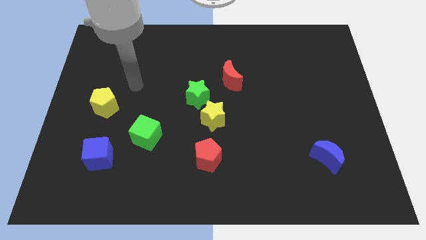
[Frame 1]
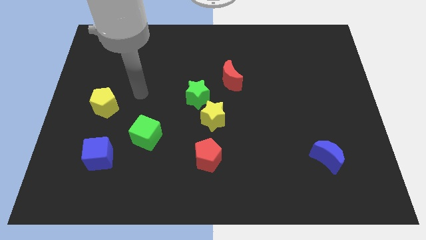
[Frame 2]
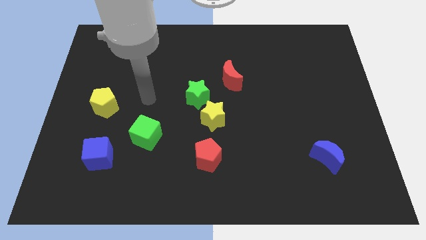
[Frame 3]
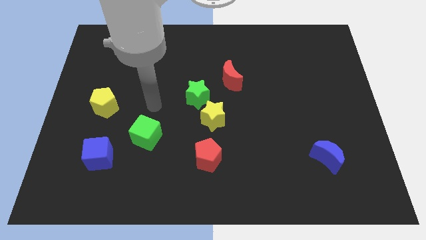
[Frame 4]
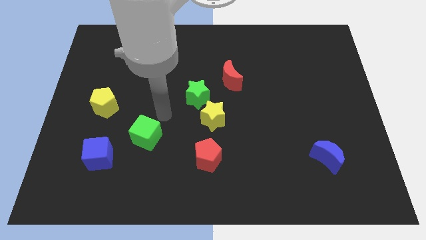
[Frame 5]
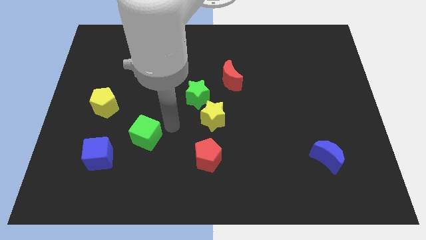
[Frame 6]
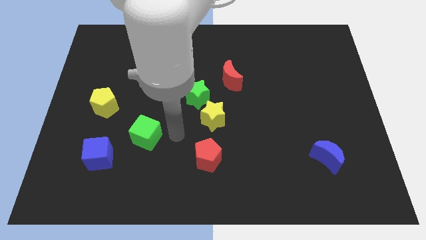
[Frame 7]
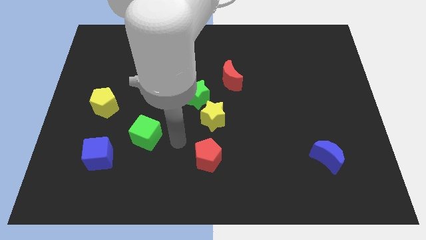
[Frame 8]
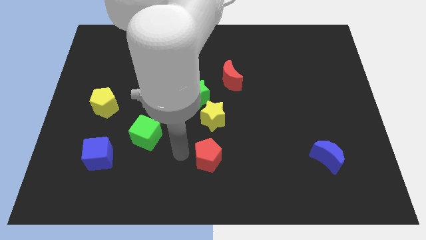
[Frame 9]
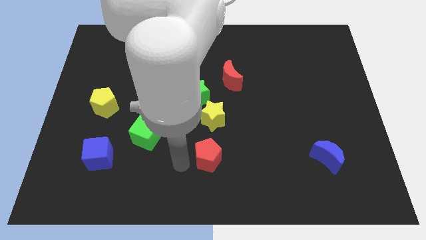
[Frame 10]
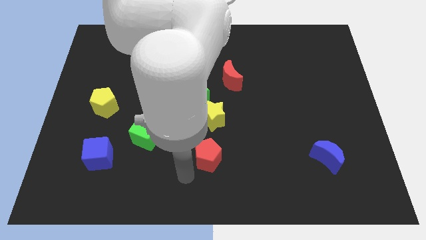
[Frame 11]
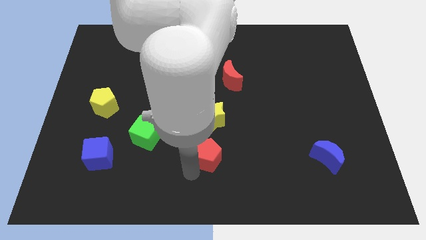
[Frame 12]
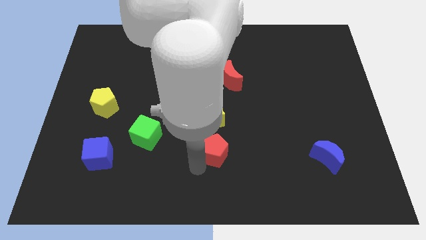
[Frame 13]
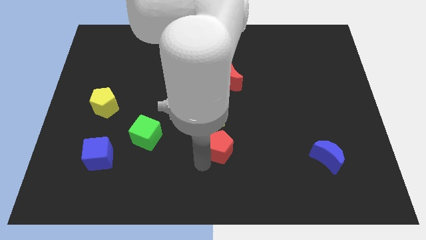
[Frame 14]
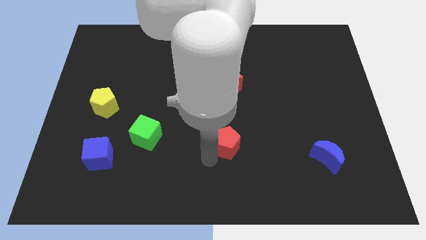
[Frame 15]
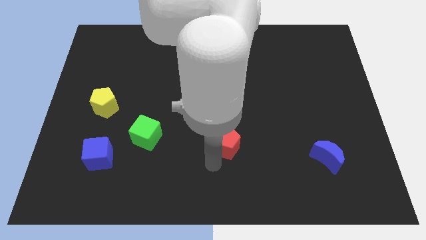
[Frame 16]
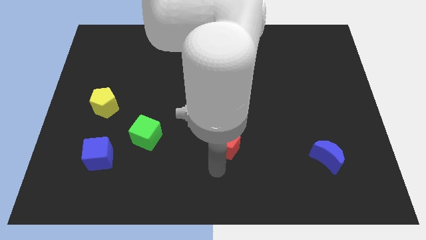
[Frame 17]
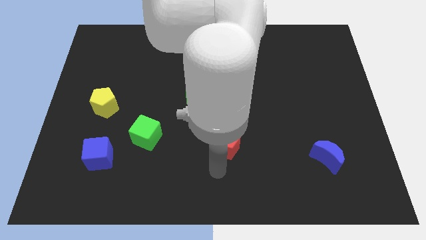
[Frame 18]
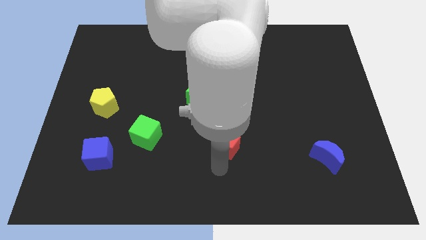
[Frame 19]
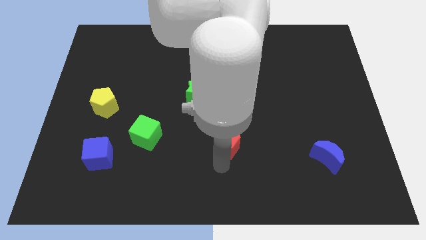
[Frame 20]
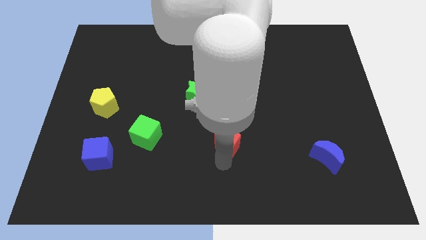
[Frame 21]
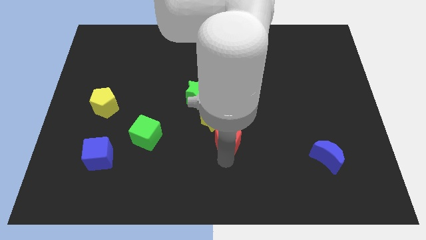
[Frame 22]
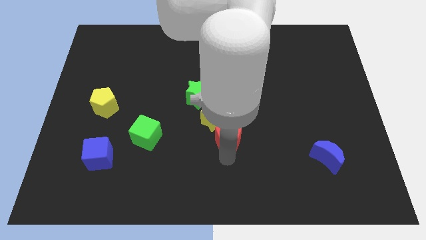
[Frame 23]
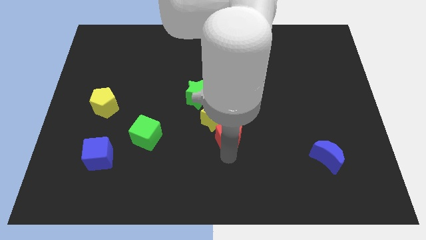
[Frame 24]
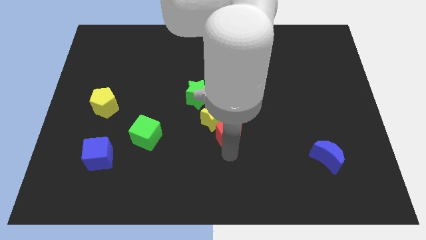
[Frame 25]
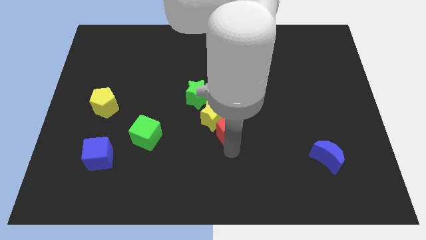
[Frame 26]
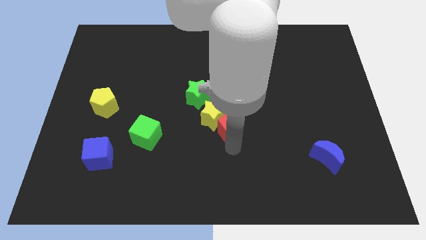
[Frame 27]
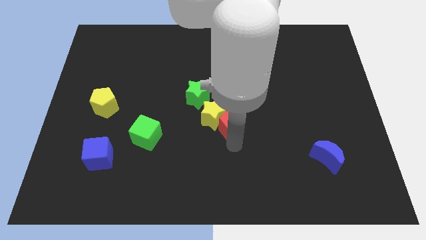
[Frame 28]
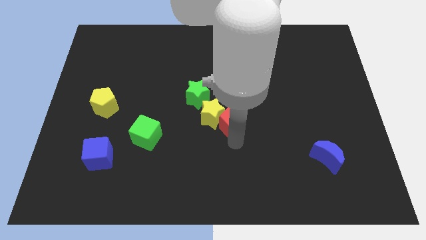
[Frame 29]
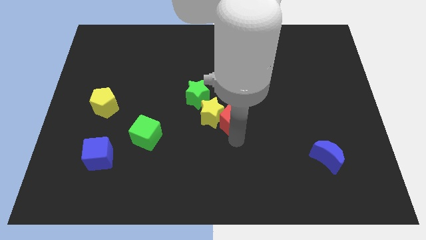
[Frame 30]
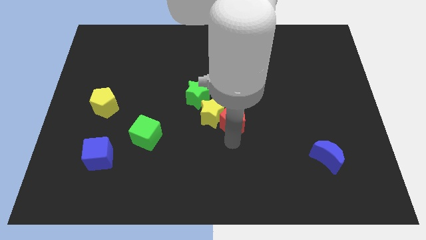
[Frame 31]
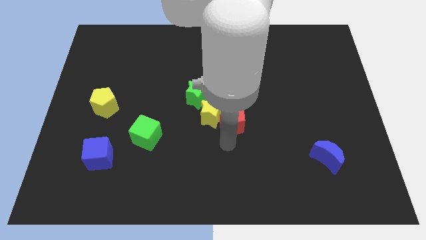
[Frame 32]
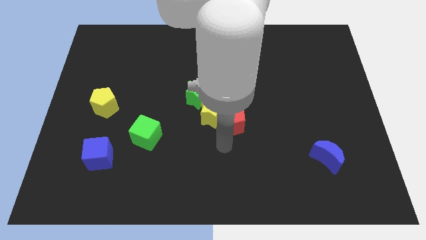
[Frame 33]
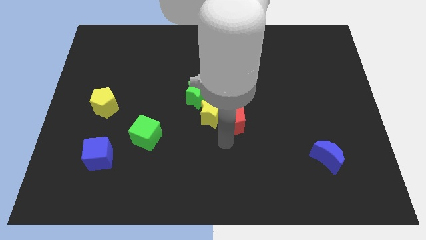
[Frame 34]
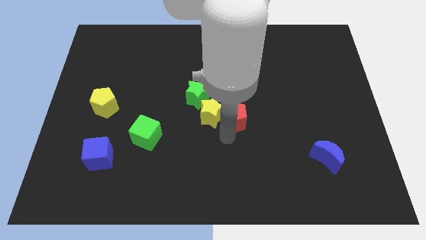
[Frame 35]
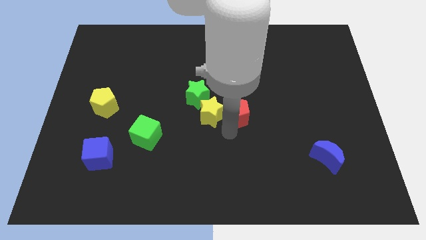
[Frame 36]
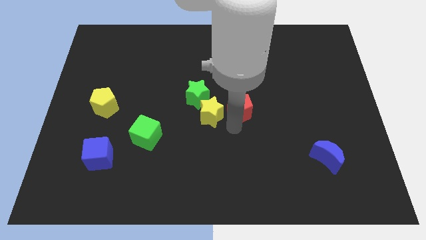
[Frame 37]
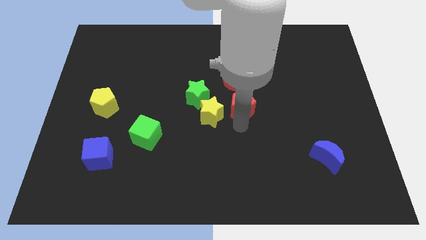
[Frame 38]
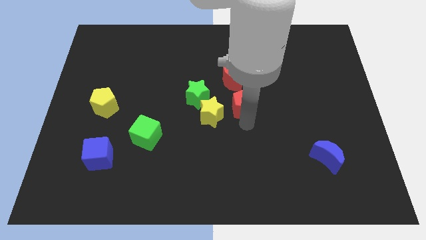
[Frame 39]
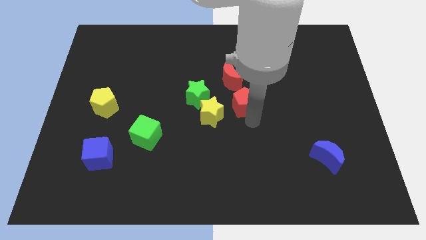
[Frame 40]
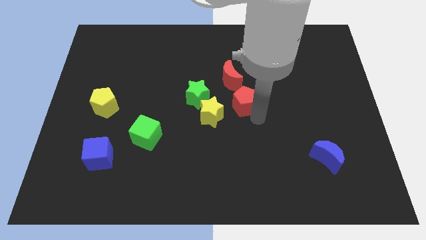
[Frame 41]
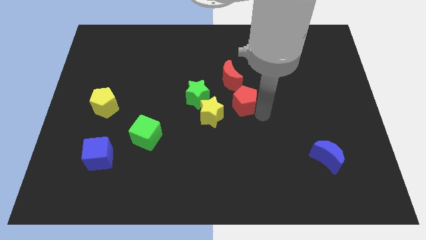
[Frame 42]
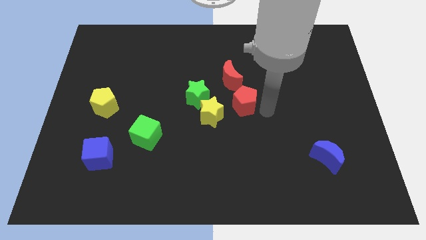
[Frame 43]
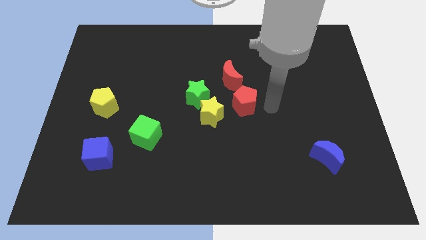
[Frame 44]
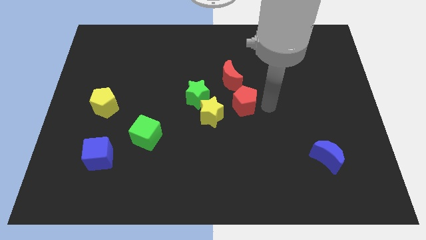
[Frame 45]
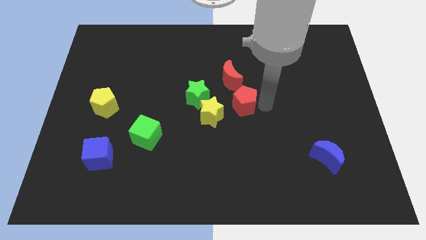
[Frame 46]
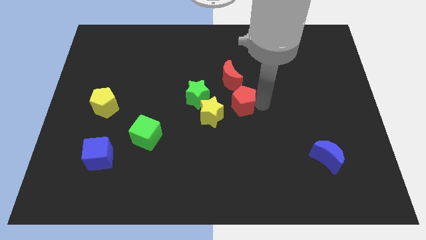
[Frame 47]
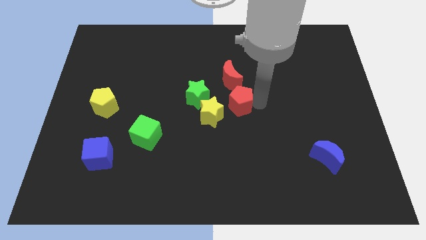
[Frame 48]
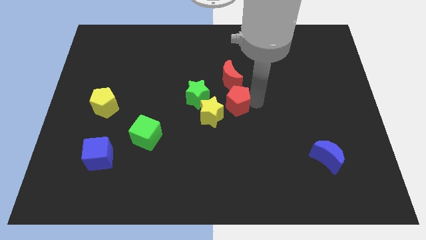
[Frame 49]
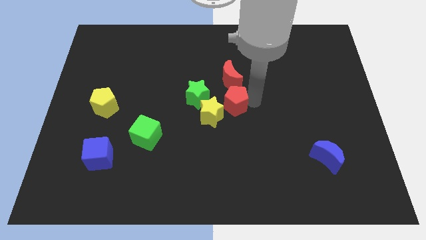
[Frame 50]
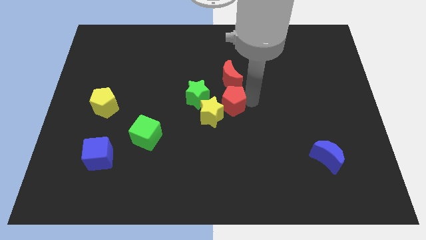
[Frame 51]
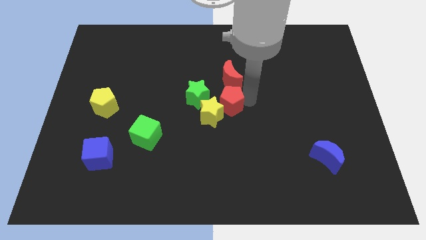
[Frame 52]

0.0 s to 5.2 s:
put the red pentagon to the top side of the yellow star

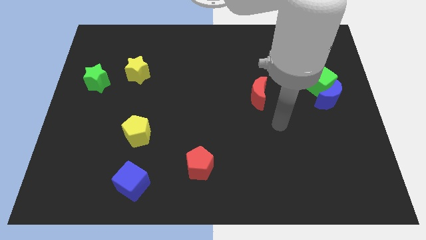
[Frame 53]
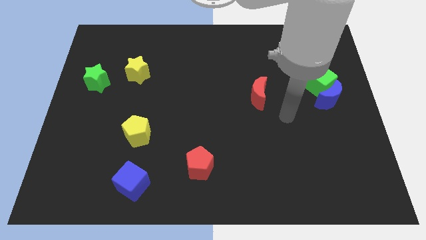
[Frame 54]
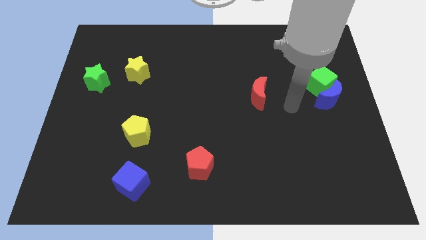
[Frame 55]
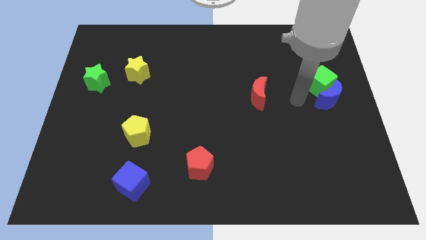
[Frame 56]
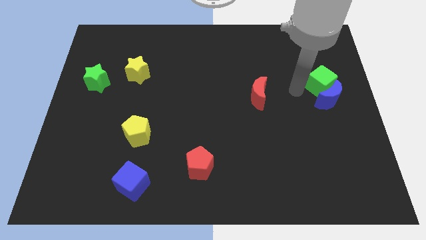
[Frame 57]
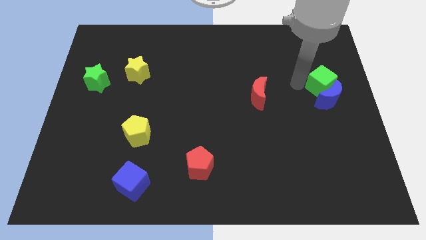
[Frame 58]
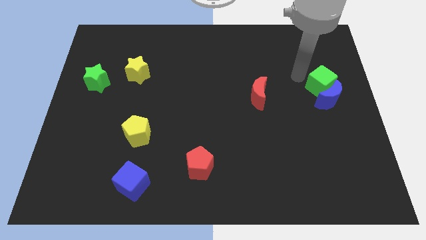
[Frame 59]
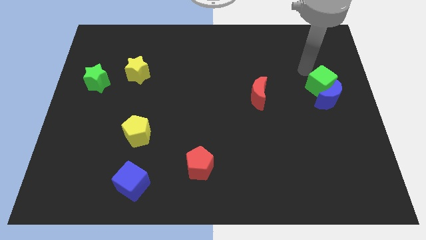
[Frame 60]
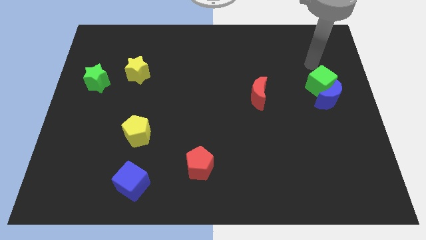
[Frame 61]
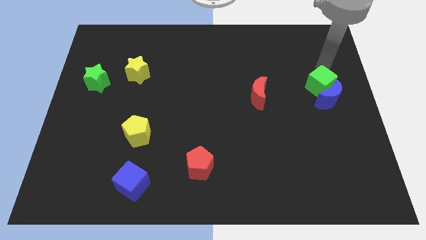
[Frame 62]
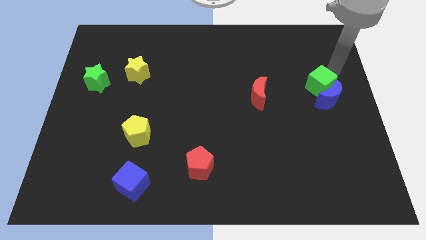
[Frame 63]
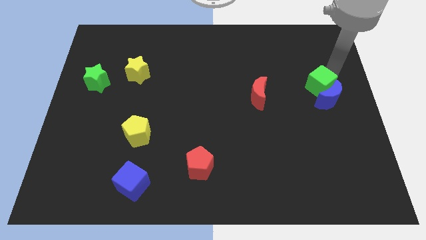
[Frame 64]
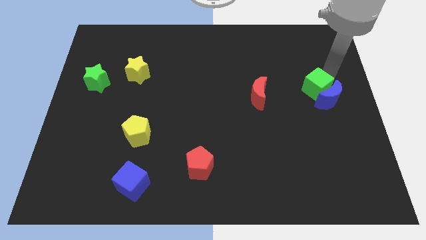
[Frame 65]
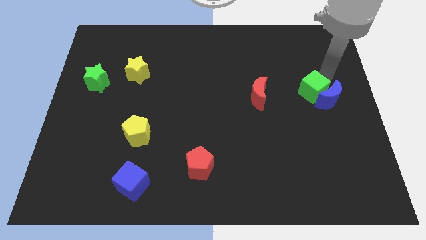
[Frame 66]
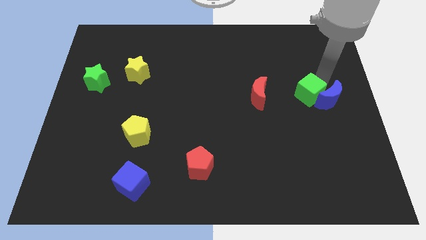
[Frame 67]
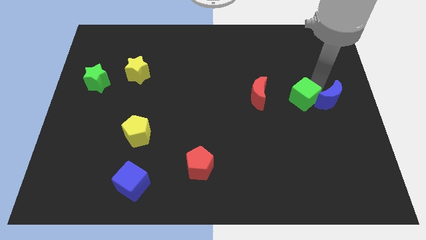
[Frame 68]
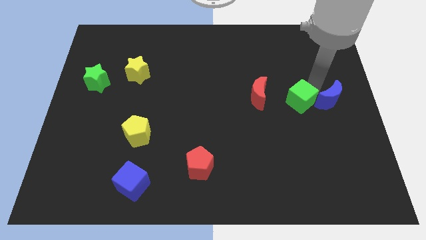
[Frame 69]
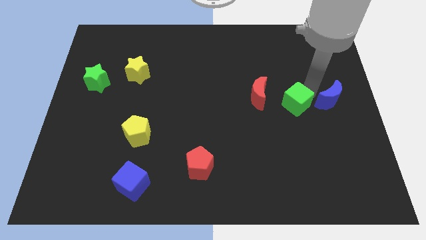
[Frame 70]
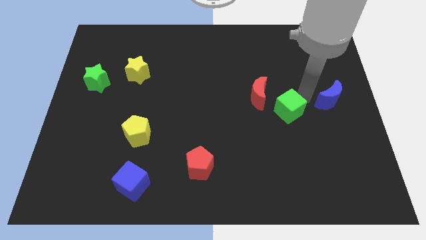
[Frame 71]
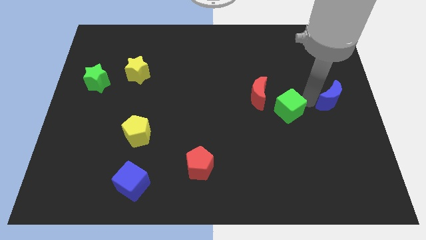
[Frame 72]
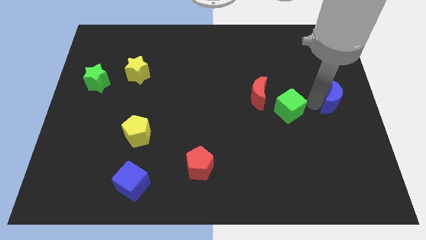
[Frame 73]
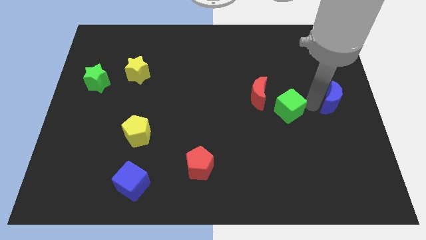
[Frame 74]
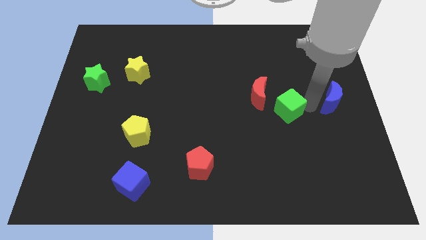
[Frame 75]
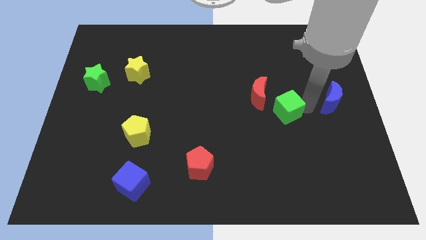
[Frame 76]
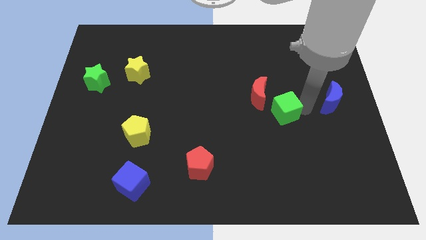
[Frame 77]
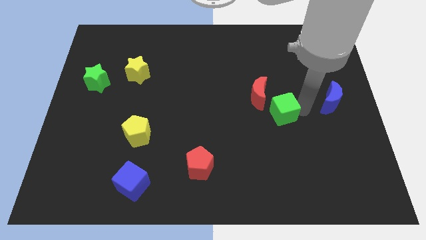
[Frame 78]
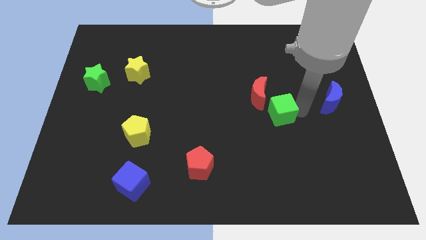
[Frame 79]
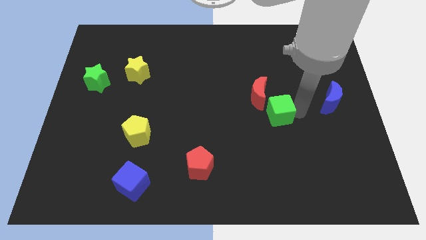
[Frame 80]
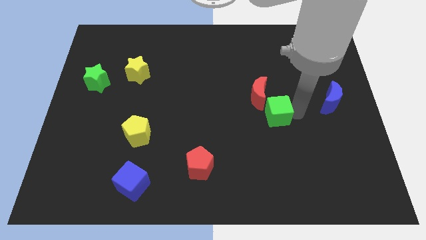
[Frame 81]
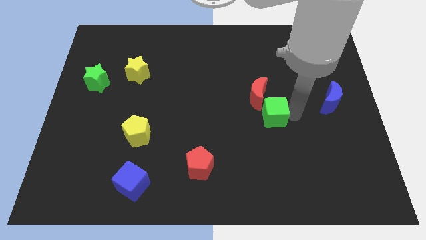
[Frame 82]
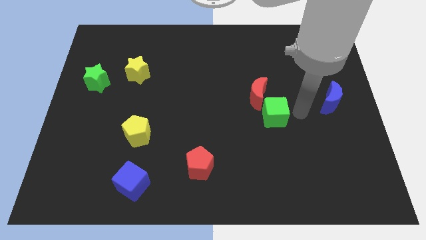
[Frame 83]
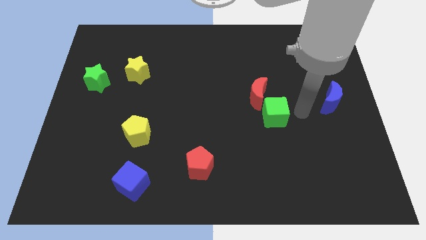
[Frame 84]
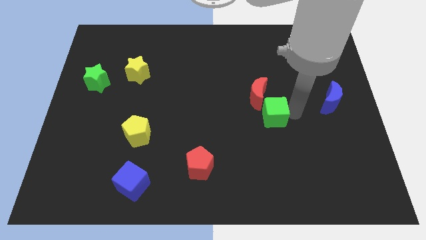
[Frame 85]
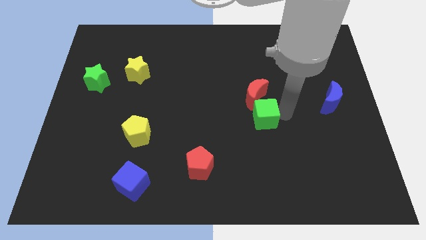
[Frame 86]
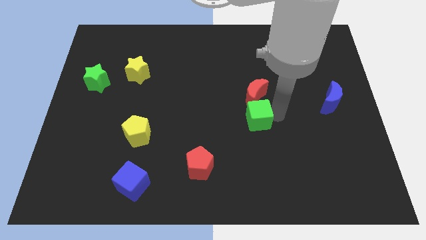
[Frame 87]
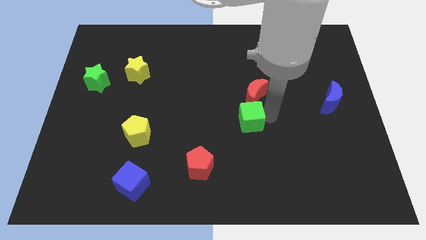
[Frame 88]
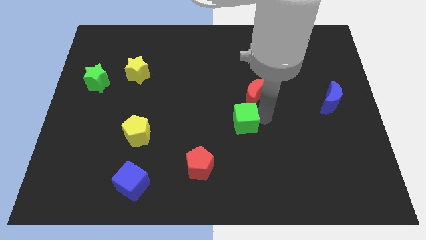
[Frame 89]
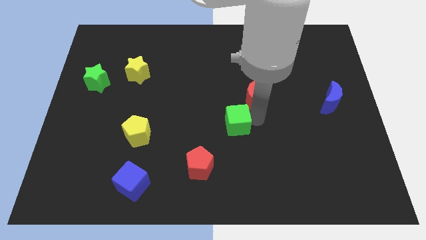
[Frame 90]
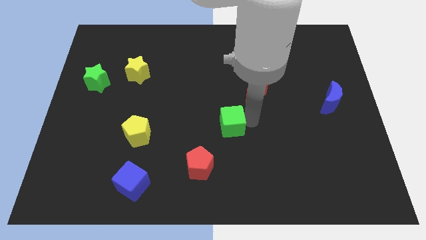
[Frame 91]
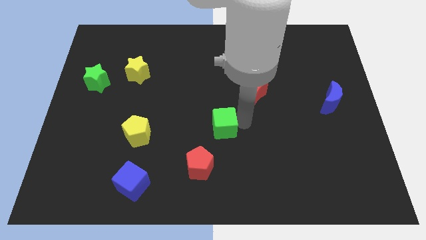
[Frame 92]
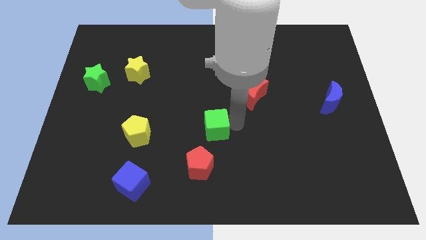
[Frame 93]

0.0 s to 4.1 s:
put the green cube to the top side of the red pentagon
